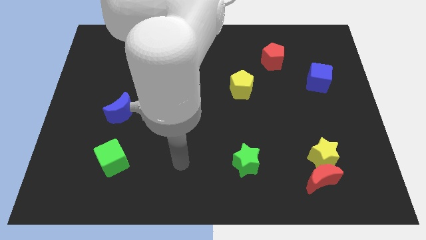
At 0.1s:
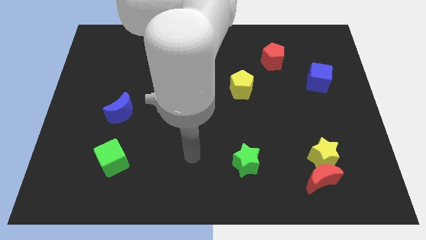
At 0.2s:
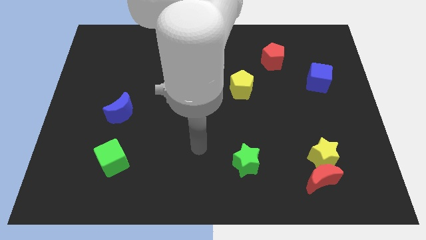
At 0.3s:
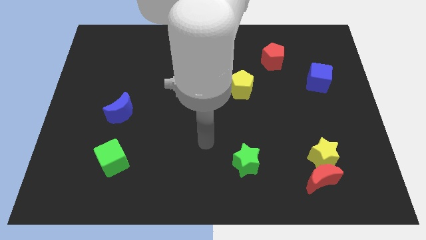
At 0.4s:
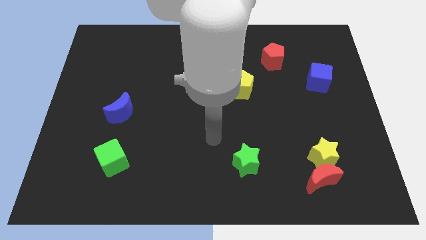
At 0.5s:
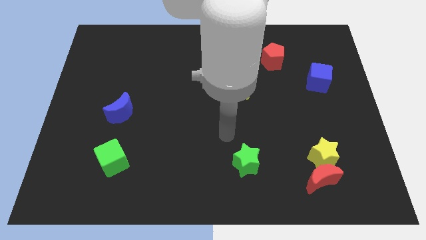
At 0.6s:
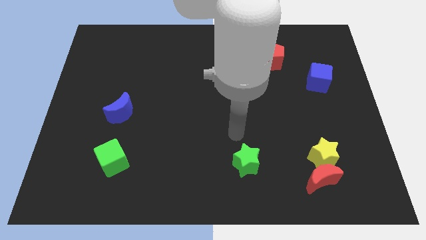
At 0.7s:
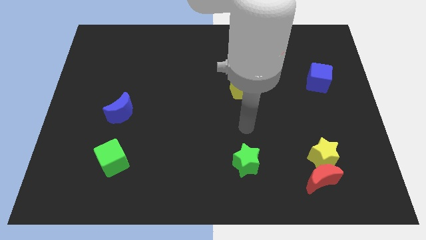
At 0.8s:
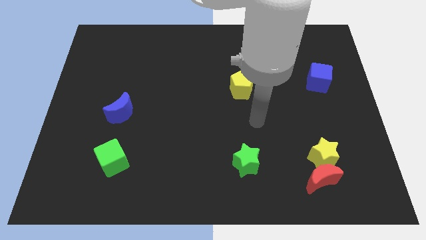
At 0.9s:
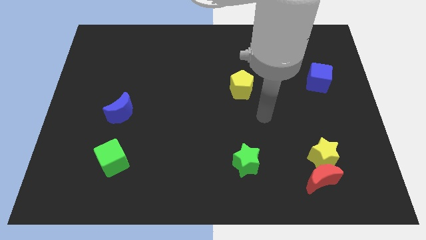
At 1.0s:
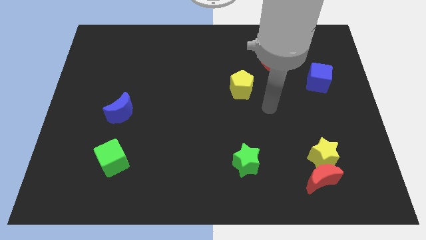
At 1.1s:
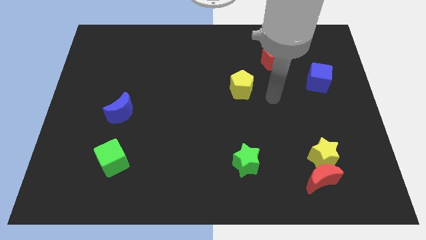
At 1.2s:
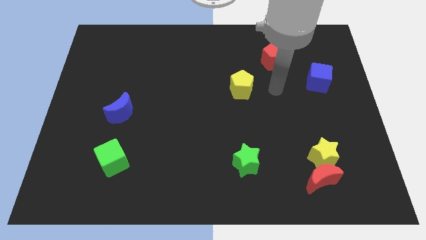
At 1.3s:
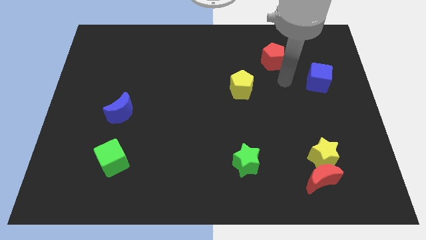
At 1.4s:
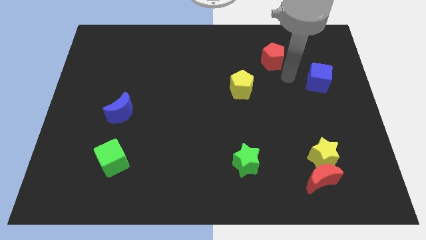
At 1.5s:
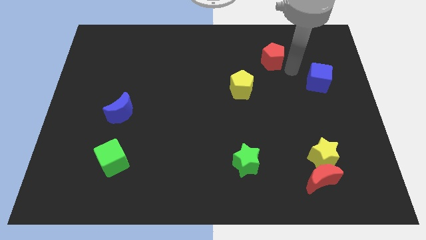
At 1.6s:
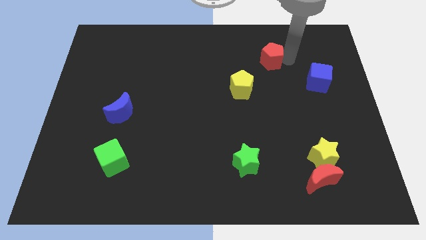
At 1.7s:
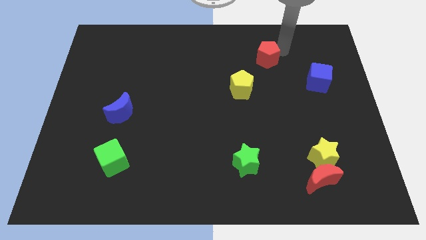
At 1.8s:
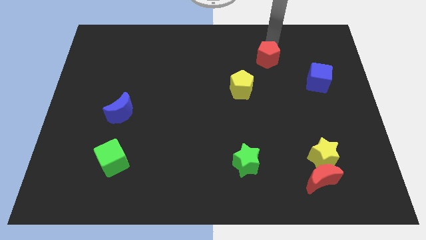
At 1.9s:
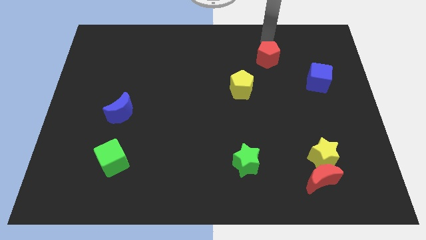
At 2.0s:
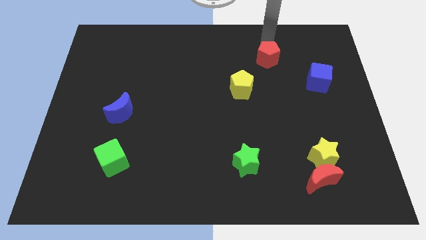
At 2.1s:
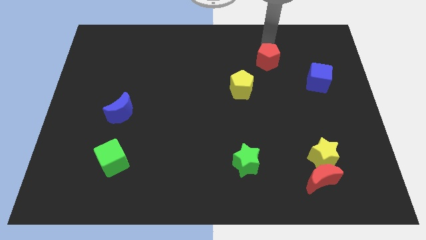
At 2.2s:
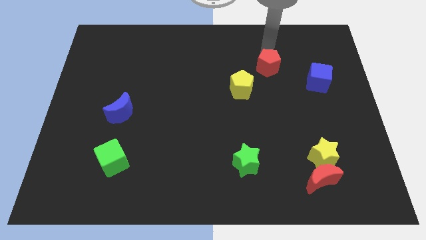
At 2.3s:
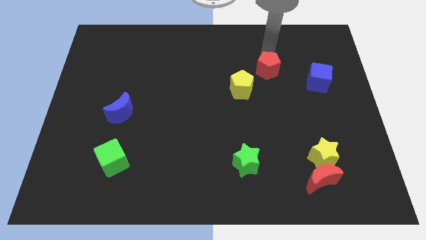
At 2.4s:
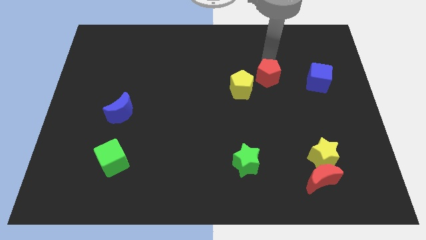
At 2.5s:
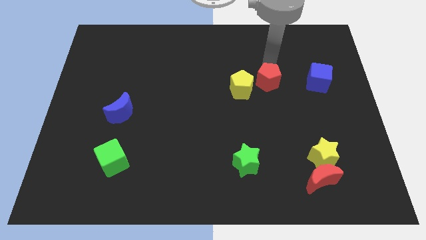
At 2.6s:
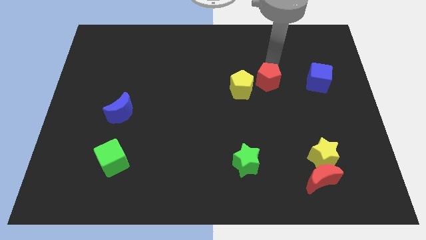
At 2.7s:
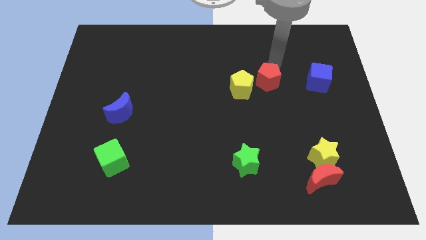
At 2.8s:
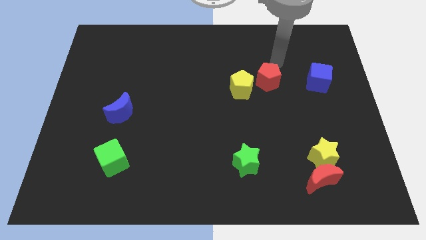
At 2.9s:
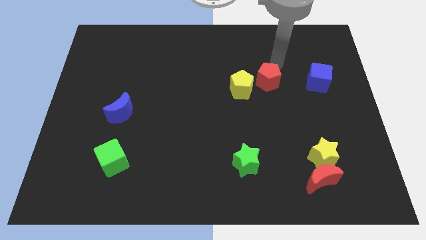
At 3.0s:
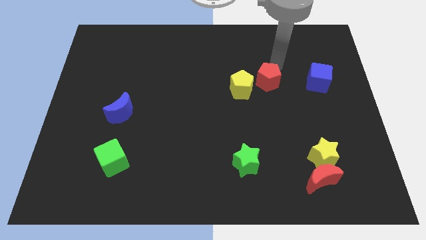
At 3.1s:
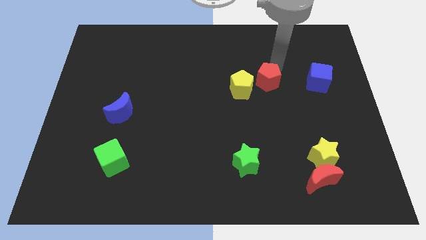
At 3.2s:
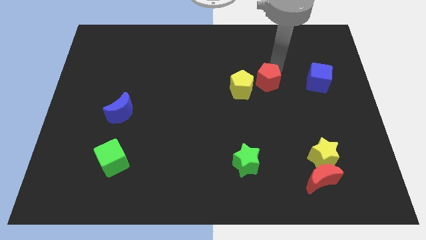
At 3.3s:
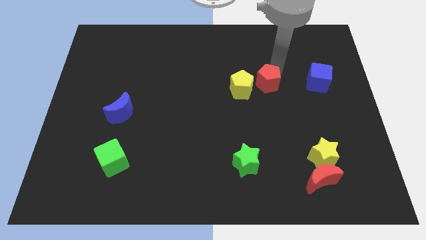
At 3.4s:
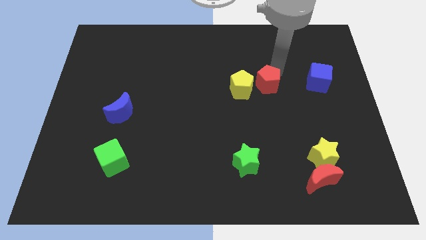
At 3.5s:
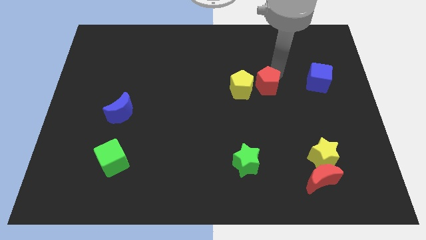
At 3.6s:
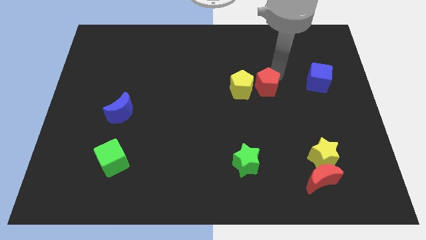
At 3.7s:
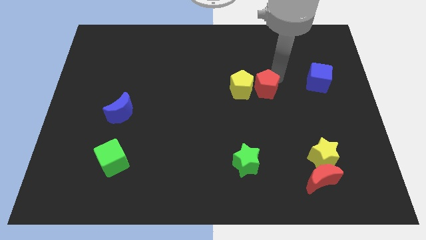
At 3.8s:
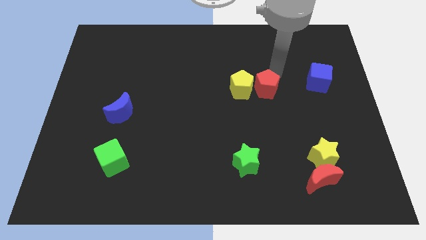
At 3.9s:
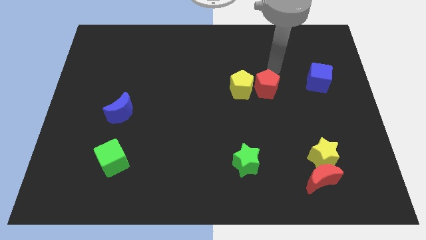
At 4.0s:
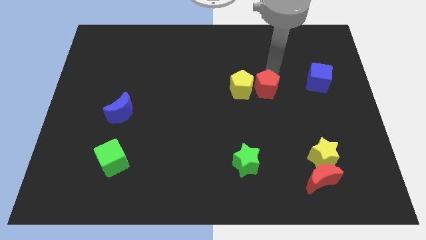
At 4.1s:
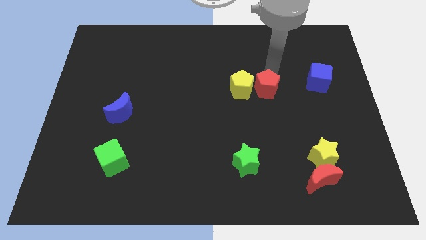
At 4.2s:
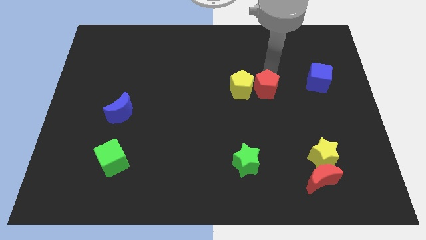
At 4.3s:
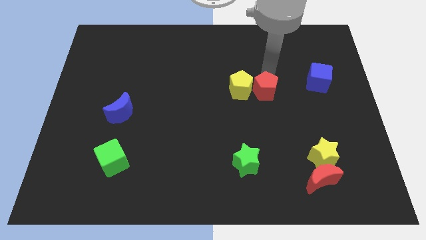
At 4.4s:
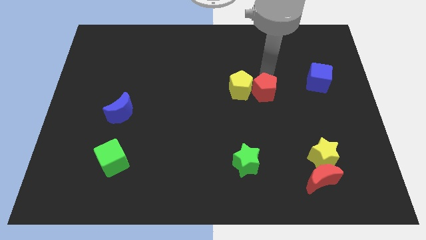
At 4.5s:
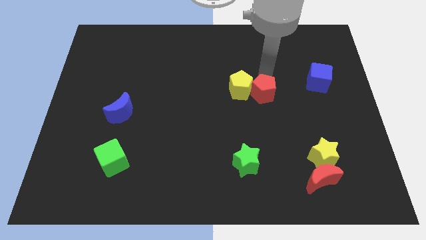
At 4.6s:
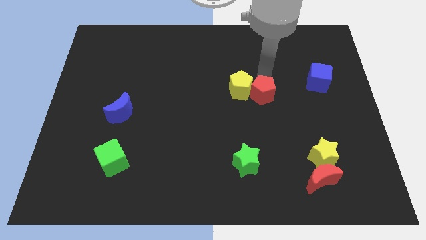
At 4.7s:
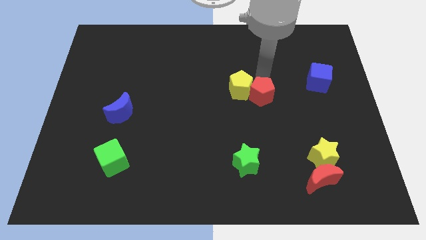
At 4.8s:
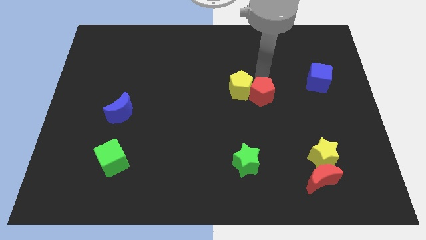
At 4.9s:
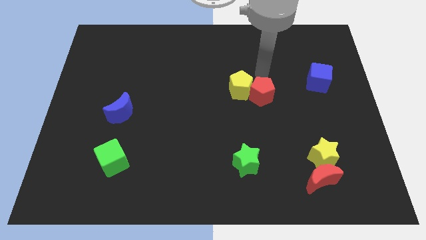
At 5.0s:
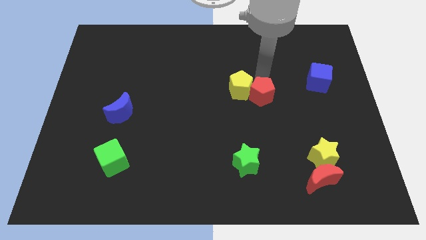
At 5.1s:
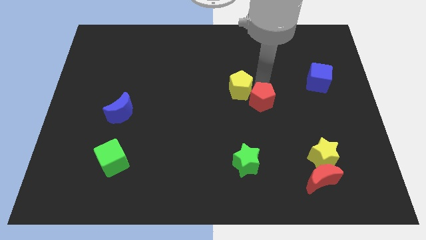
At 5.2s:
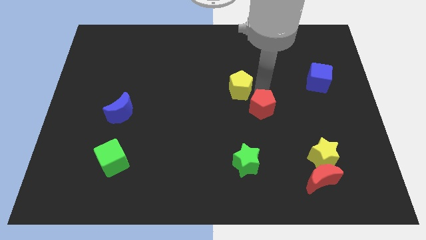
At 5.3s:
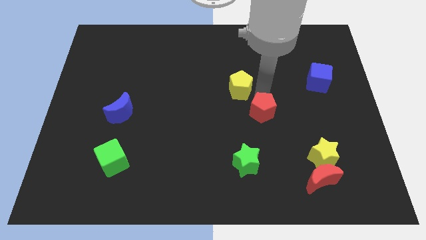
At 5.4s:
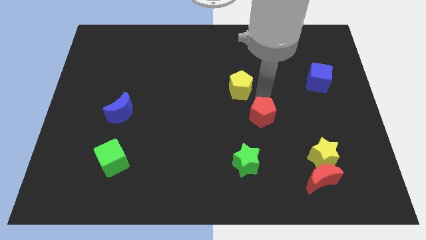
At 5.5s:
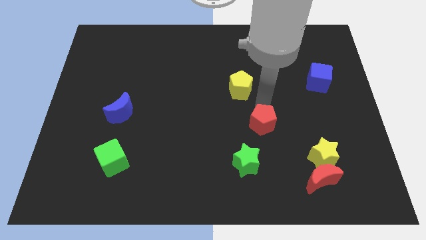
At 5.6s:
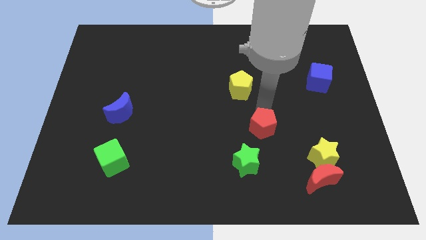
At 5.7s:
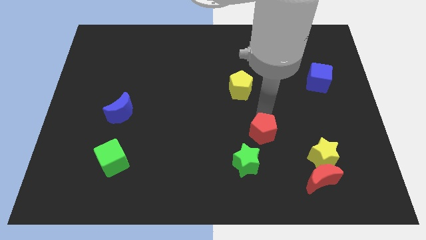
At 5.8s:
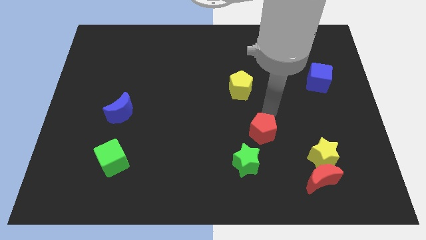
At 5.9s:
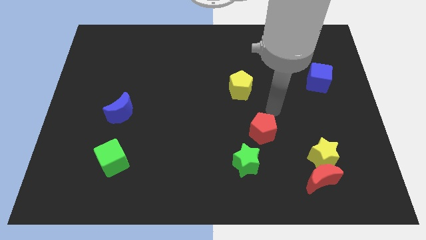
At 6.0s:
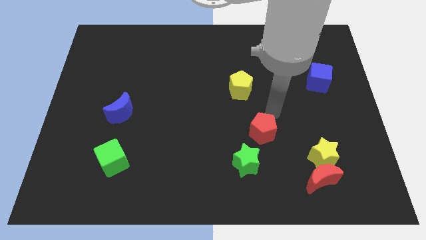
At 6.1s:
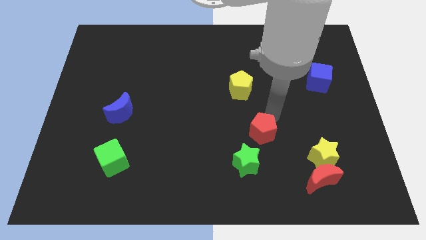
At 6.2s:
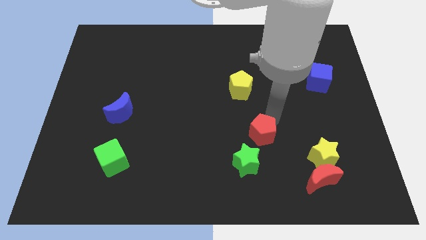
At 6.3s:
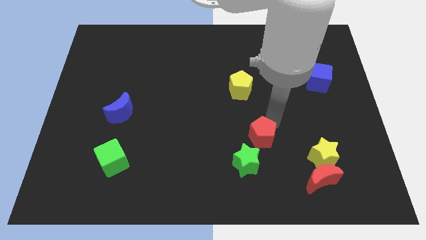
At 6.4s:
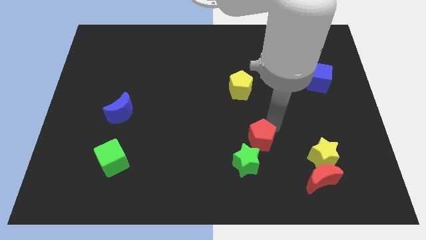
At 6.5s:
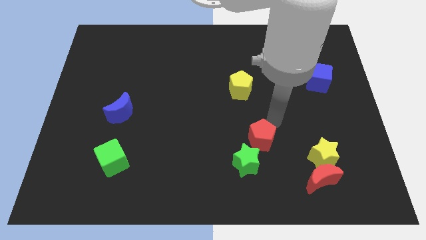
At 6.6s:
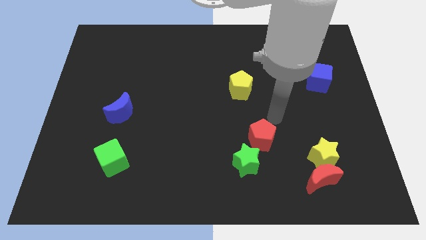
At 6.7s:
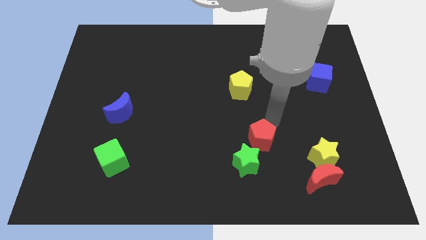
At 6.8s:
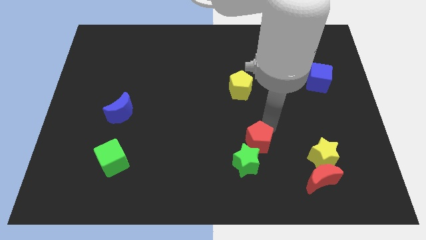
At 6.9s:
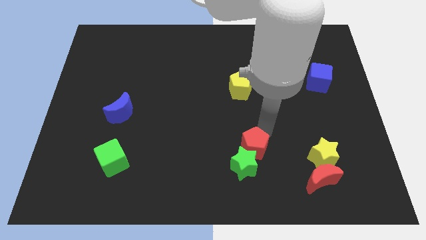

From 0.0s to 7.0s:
slide the red pentagon to the green star
